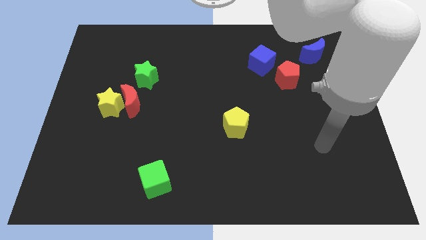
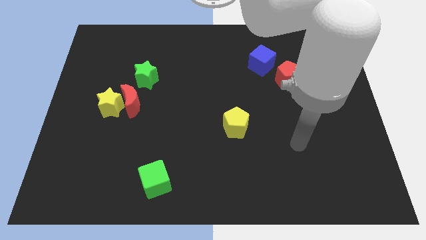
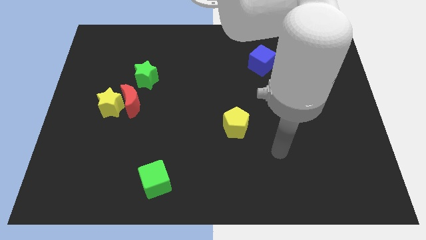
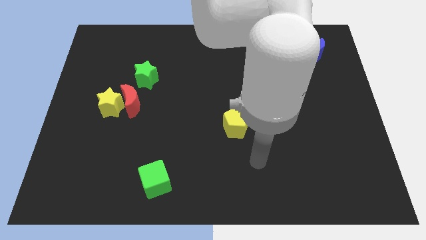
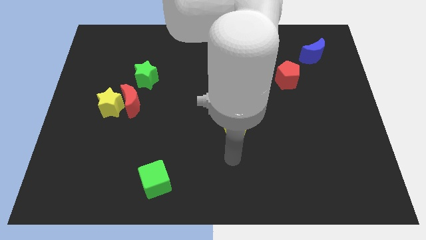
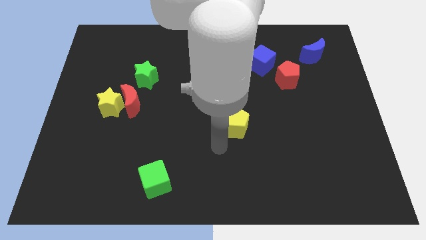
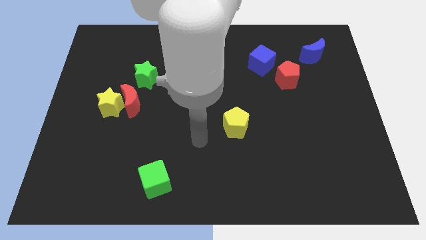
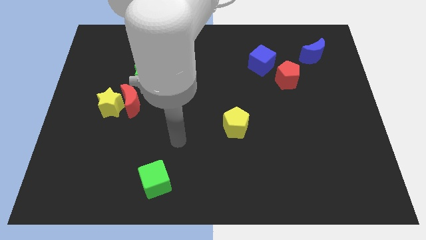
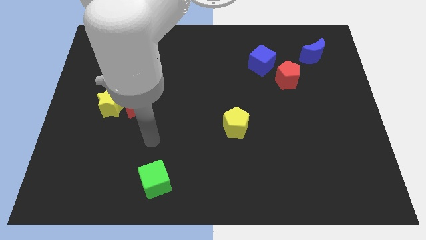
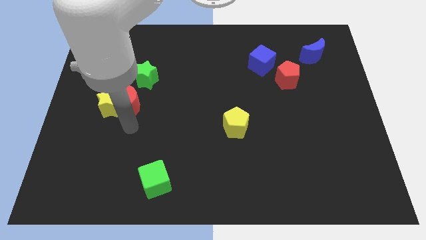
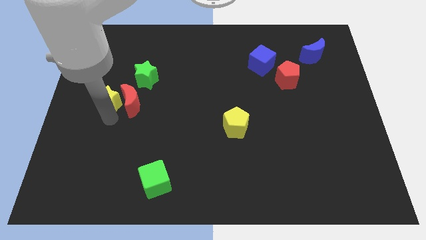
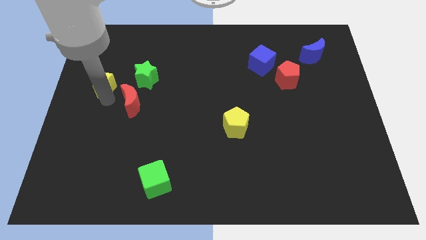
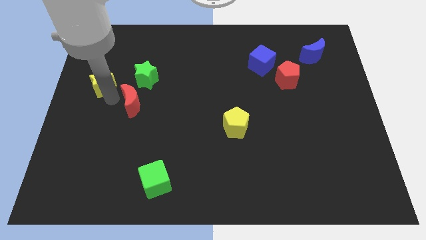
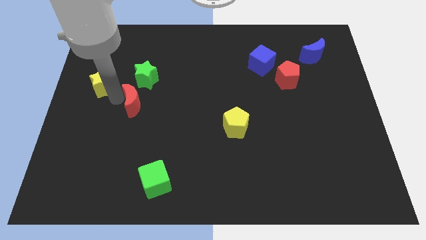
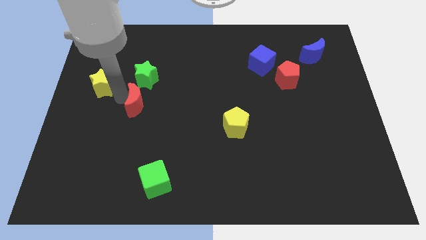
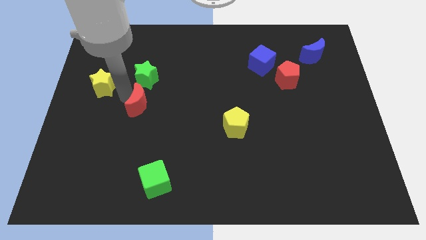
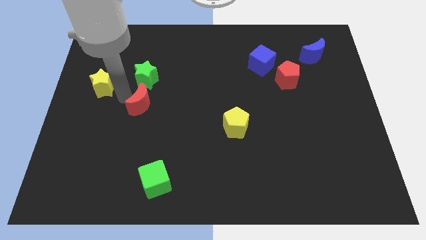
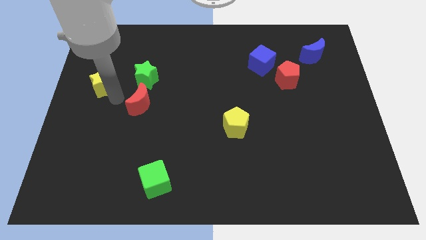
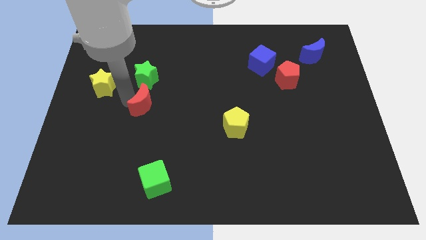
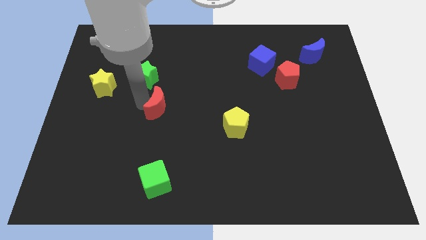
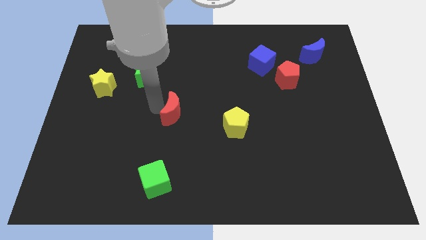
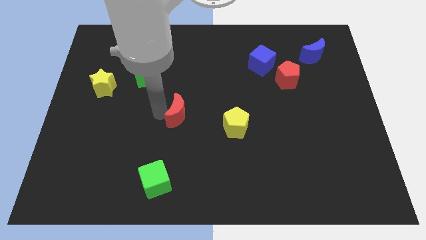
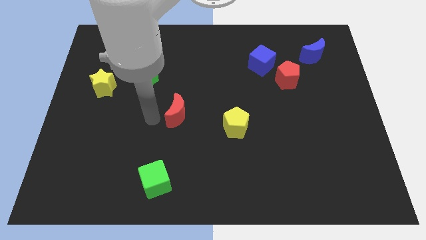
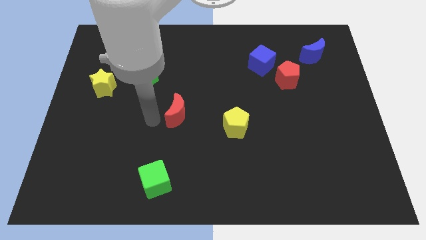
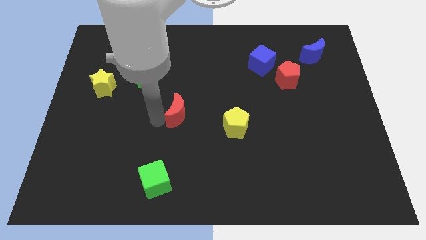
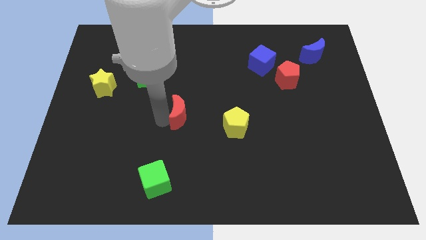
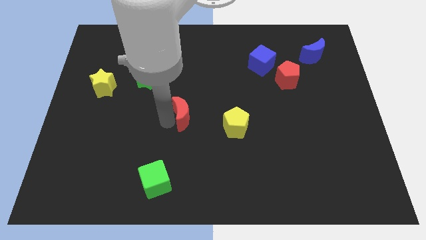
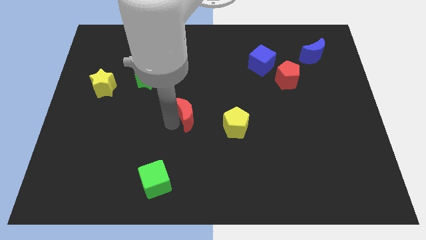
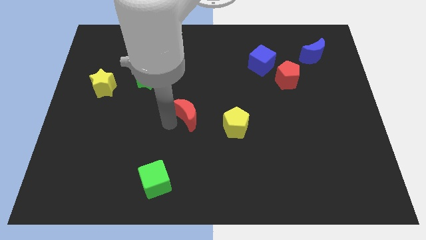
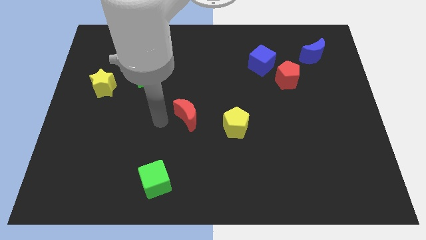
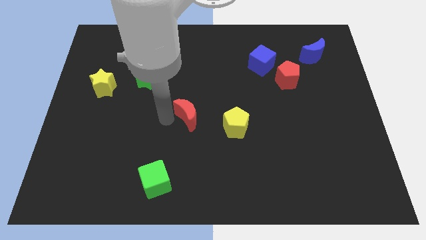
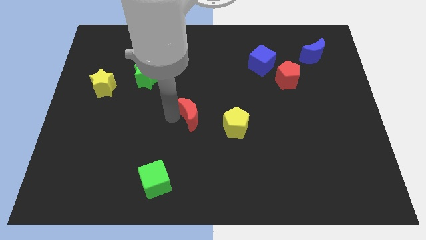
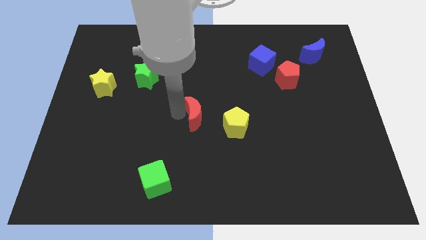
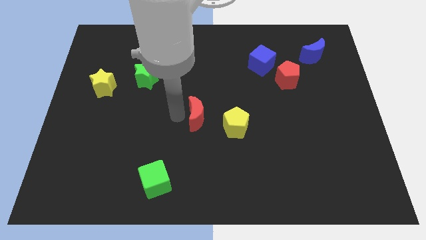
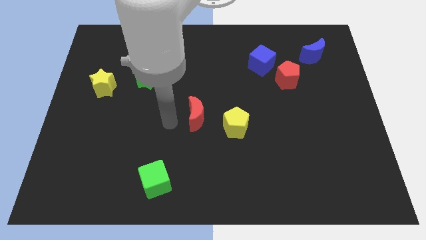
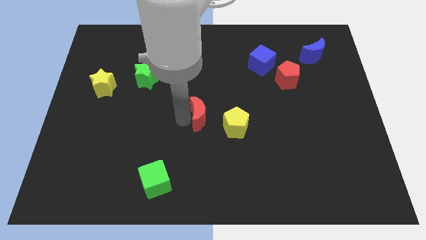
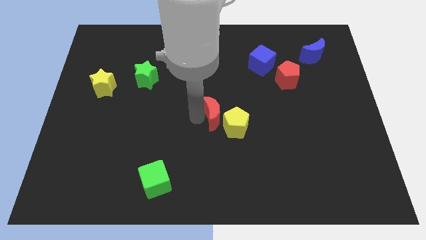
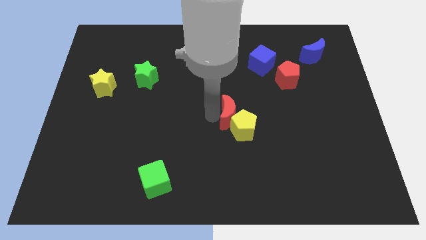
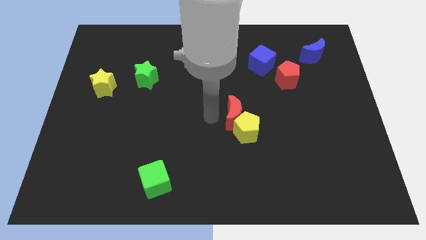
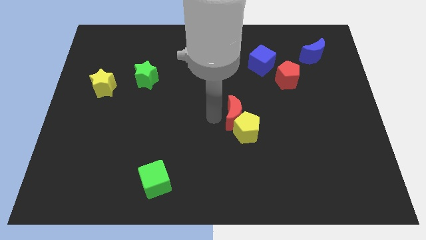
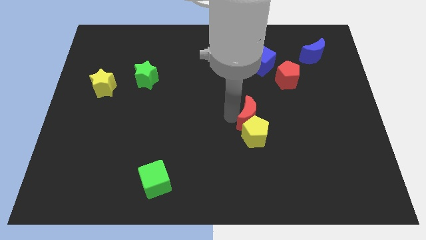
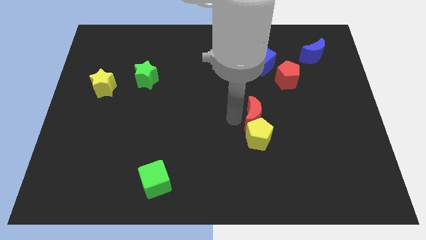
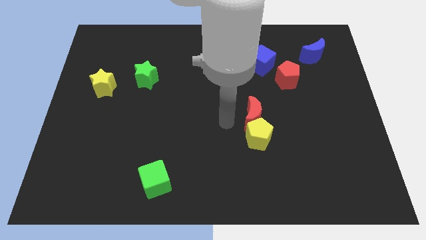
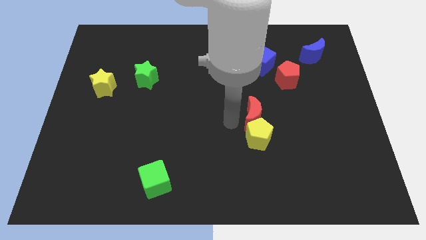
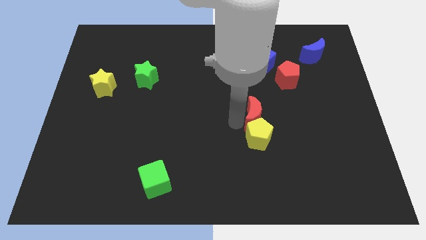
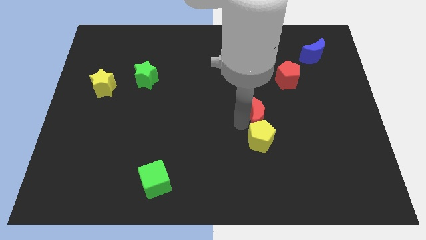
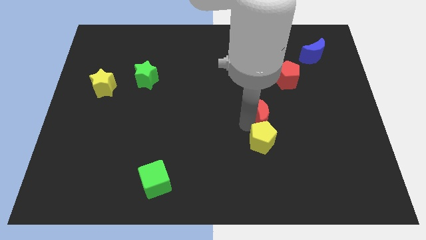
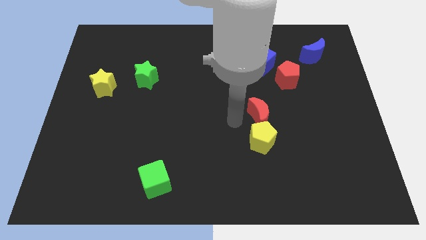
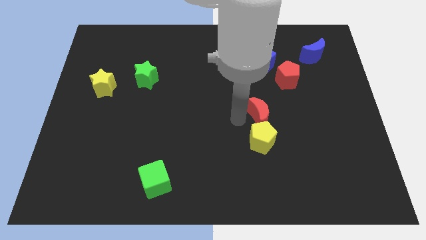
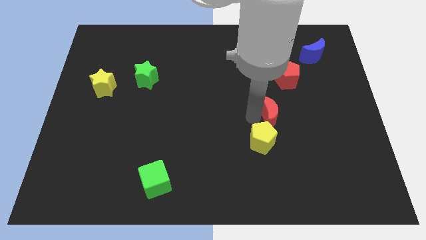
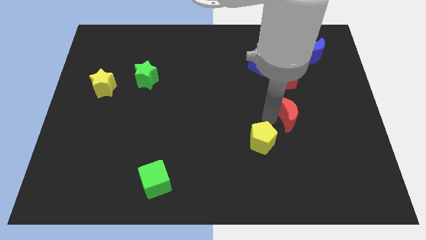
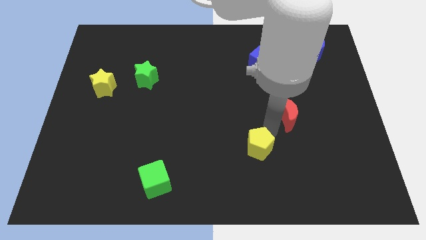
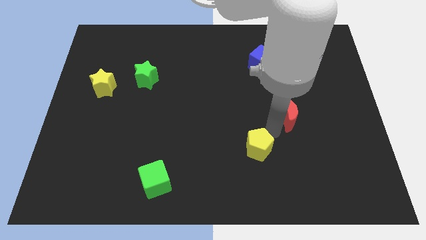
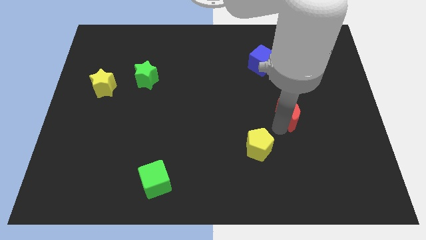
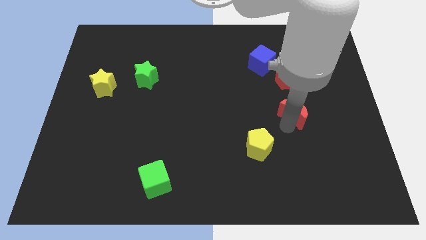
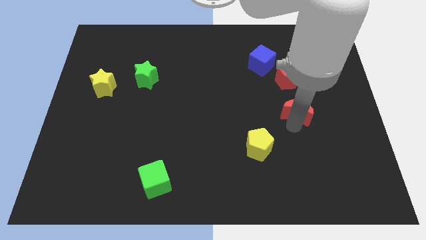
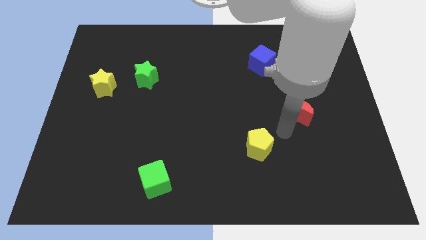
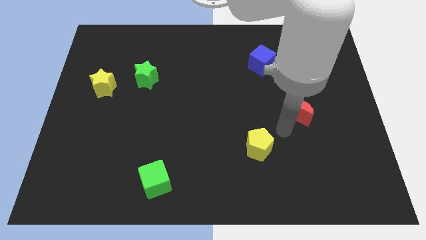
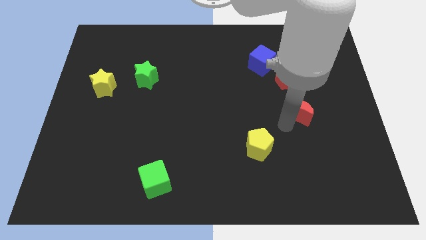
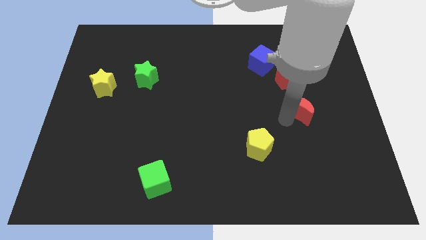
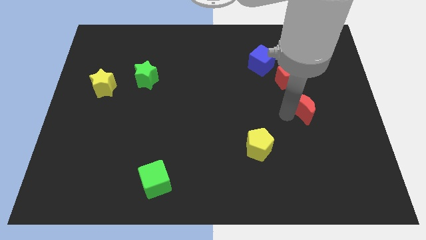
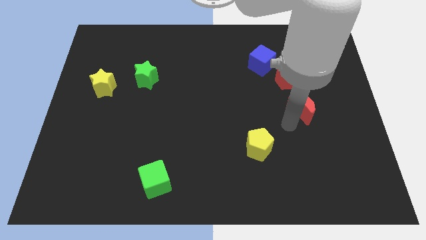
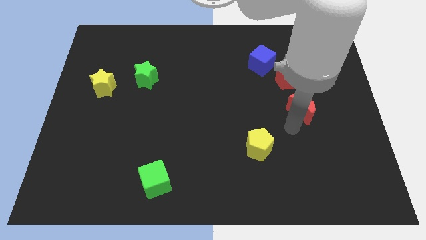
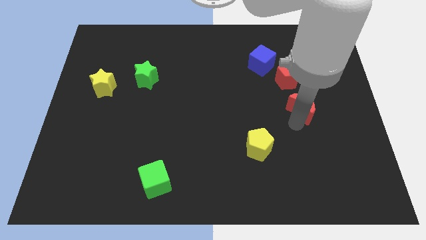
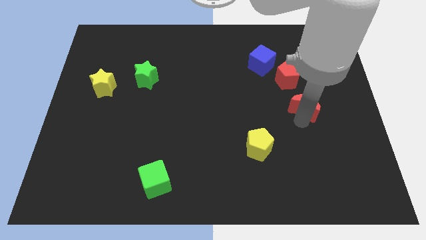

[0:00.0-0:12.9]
push the red moon to the bottom right side of the red pentagon
